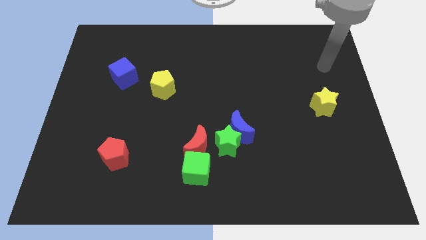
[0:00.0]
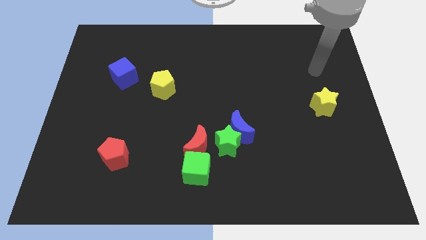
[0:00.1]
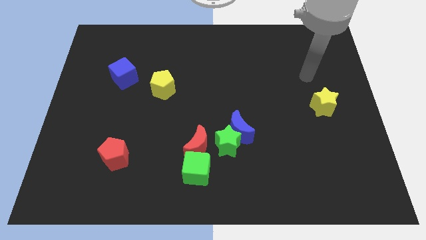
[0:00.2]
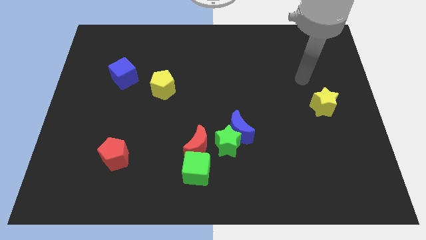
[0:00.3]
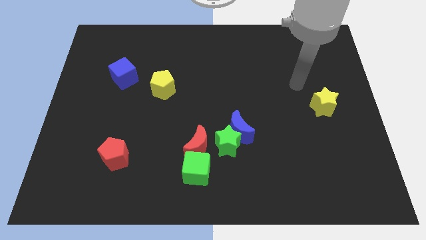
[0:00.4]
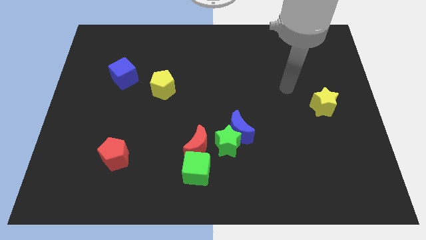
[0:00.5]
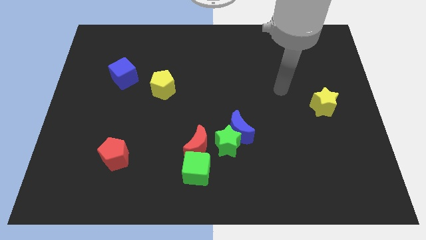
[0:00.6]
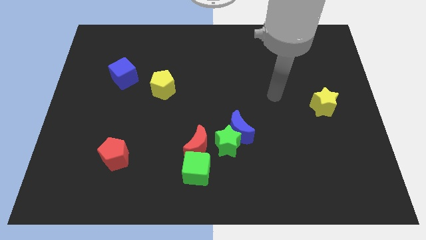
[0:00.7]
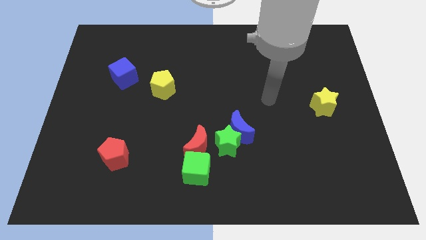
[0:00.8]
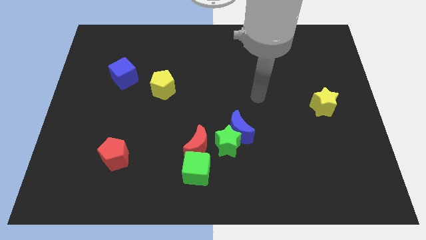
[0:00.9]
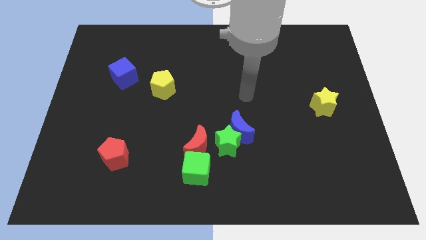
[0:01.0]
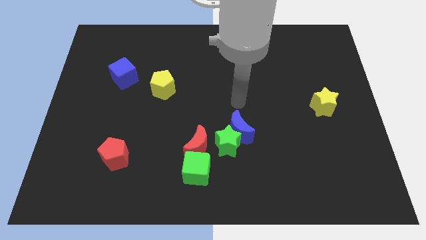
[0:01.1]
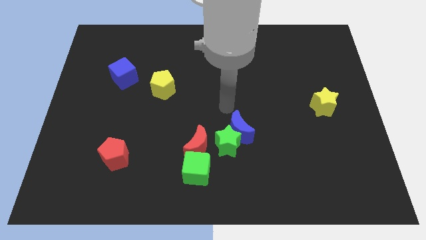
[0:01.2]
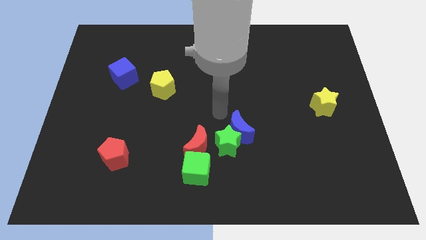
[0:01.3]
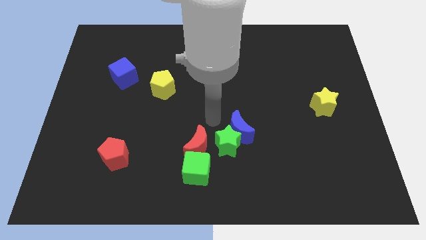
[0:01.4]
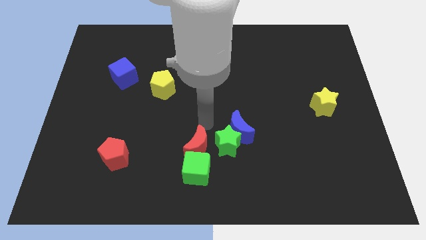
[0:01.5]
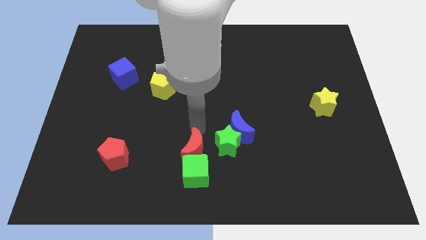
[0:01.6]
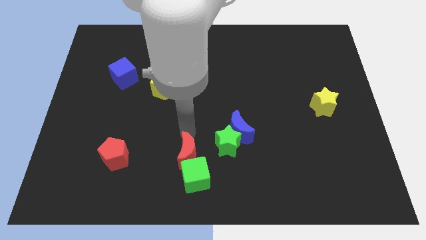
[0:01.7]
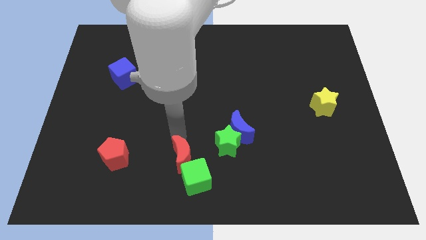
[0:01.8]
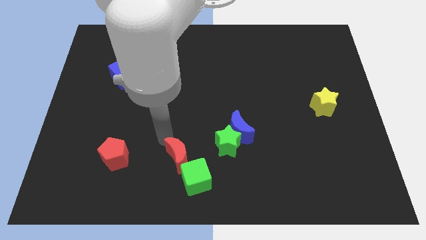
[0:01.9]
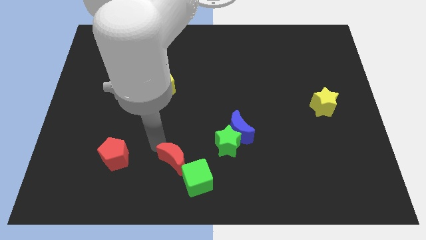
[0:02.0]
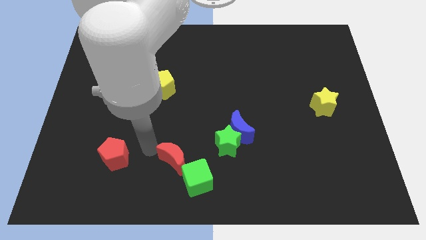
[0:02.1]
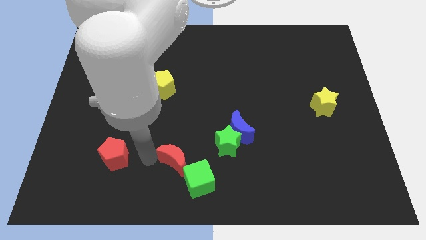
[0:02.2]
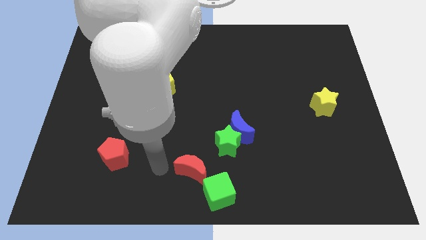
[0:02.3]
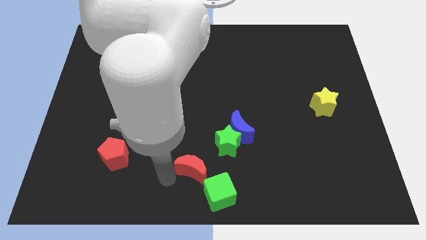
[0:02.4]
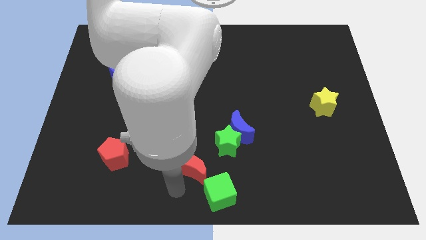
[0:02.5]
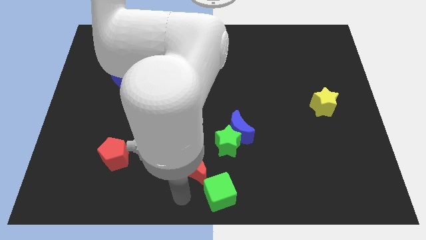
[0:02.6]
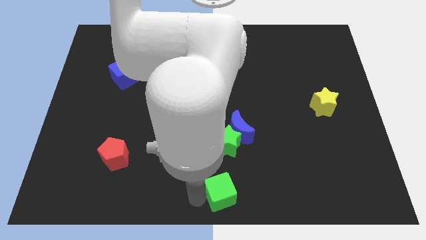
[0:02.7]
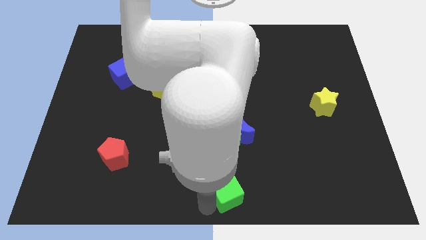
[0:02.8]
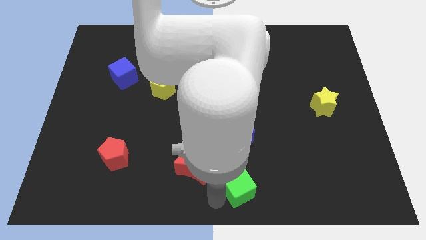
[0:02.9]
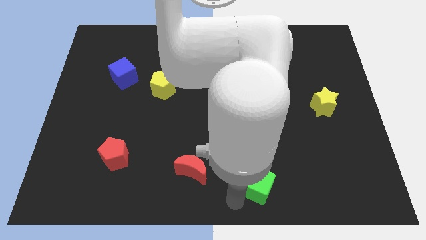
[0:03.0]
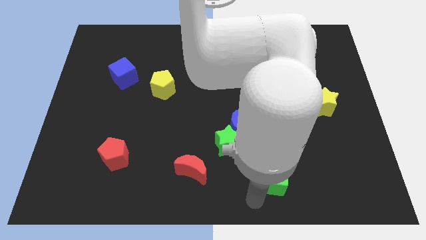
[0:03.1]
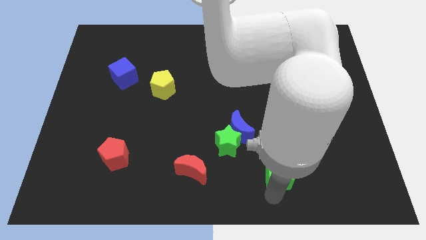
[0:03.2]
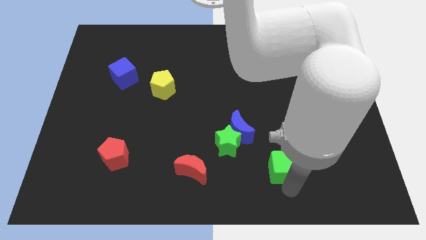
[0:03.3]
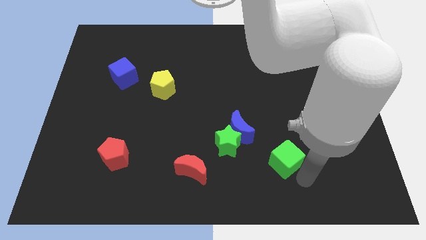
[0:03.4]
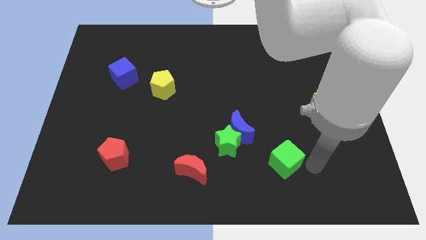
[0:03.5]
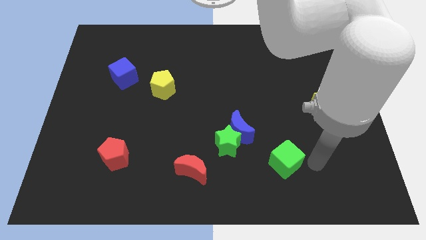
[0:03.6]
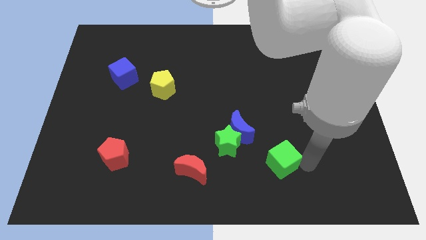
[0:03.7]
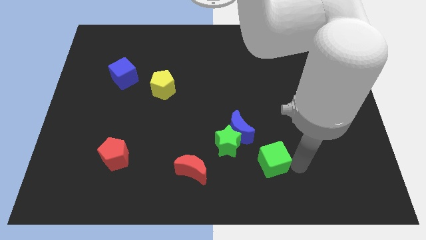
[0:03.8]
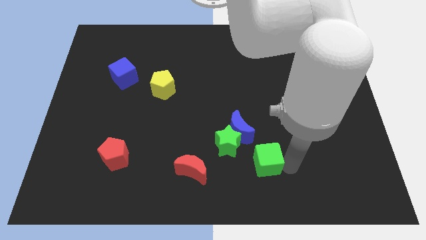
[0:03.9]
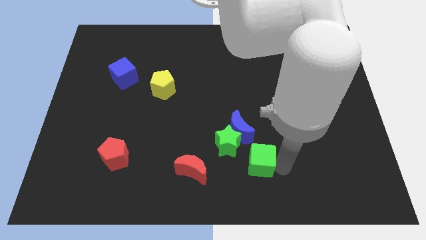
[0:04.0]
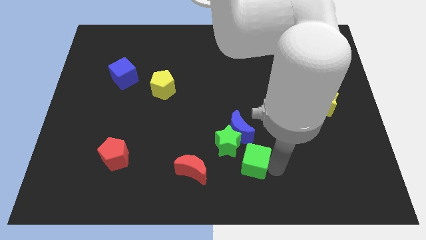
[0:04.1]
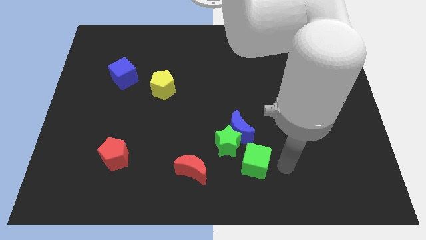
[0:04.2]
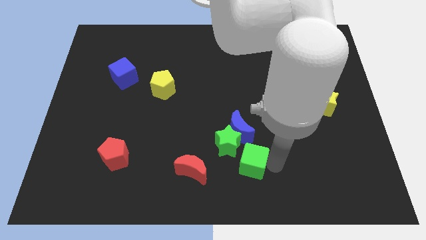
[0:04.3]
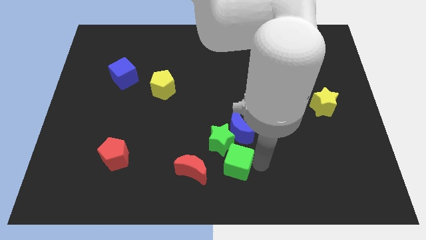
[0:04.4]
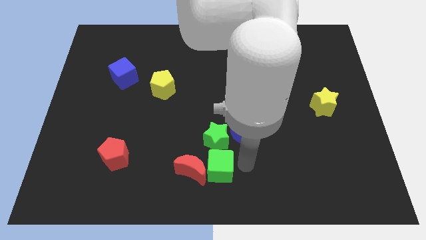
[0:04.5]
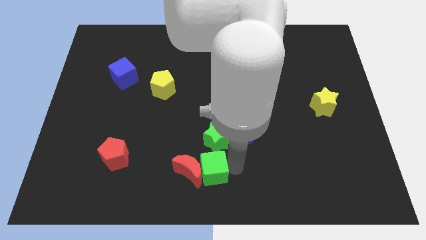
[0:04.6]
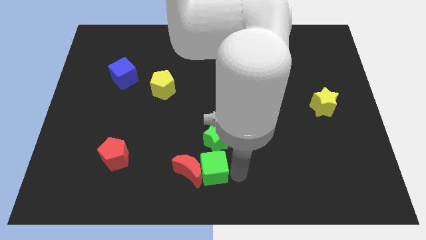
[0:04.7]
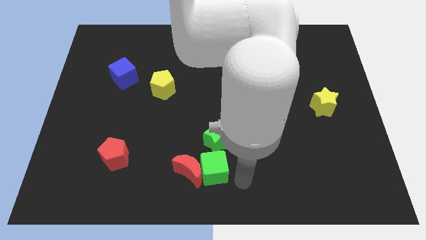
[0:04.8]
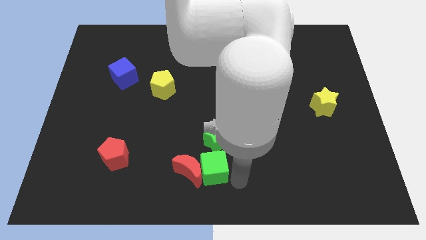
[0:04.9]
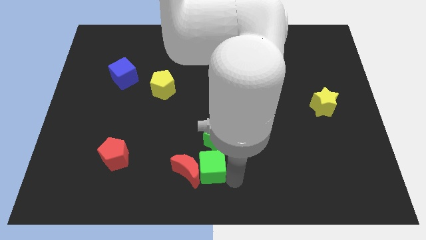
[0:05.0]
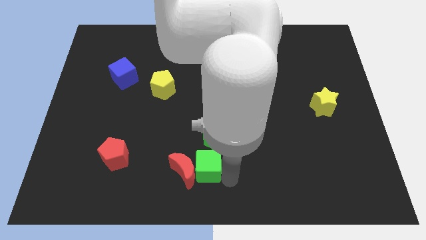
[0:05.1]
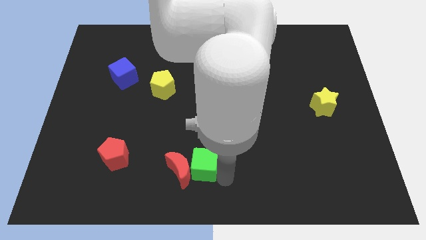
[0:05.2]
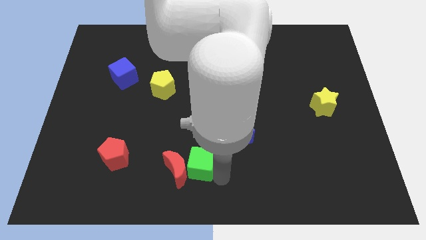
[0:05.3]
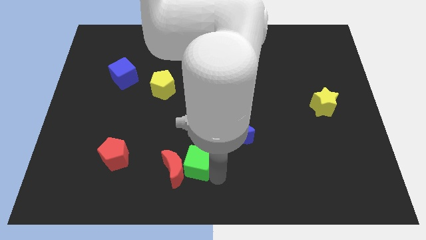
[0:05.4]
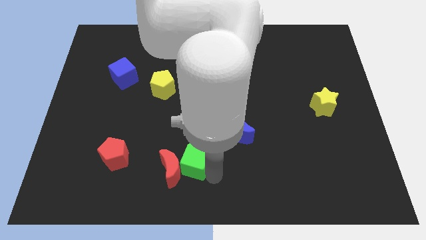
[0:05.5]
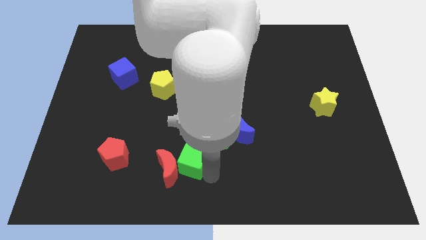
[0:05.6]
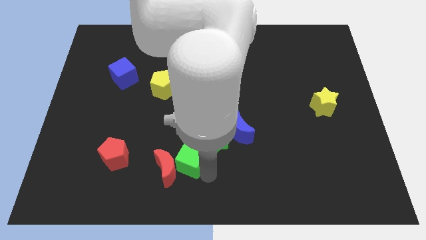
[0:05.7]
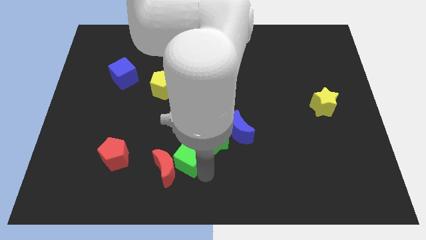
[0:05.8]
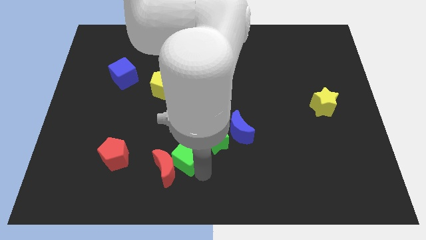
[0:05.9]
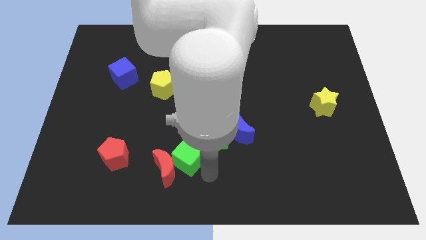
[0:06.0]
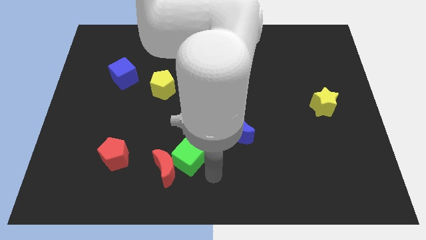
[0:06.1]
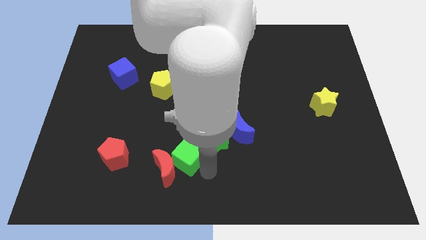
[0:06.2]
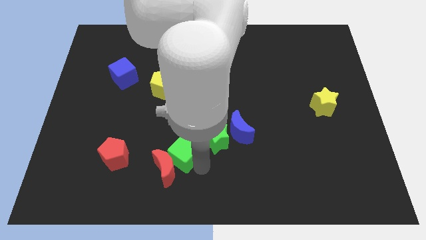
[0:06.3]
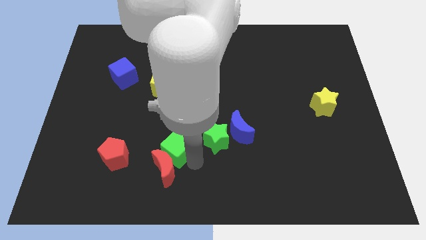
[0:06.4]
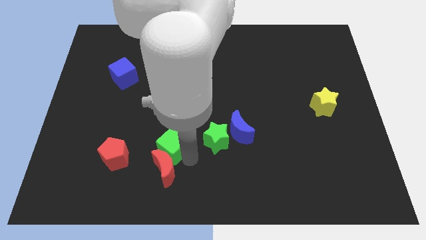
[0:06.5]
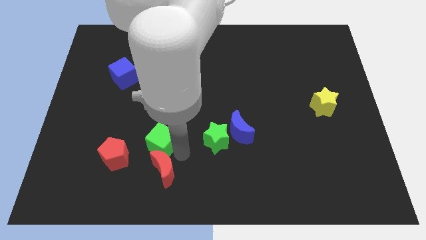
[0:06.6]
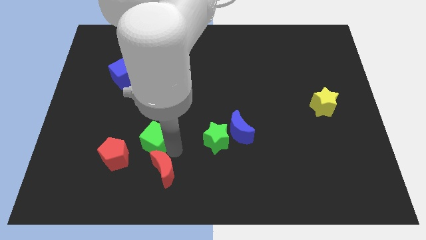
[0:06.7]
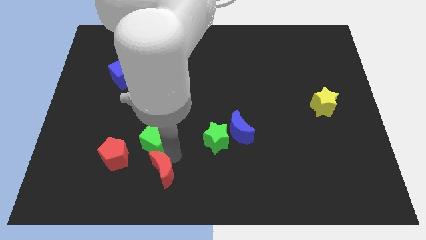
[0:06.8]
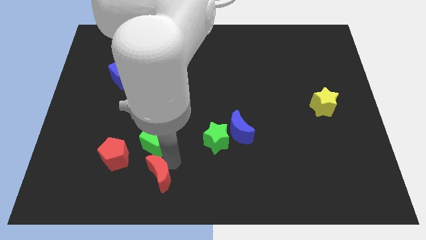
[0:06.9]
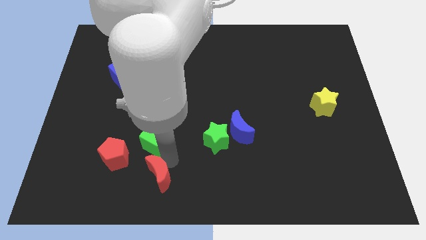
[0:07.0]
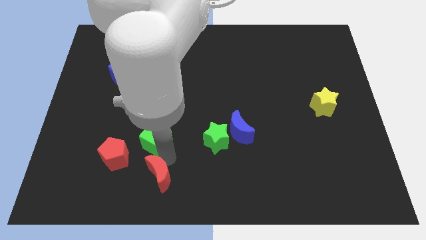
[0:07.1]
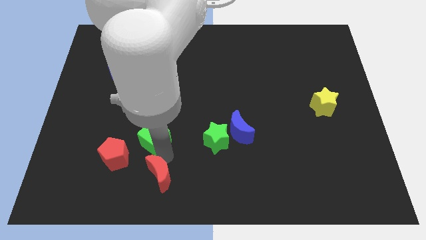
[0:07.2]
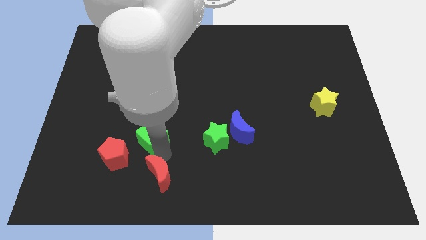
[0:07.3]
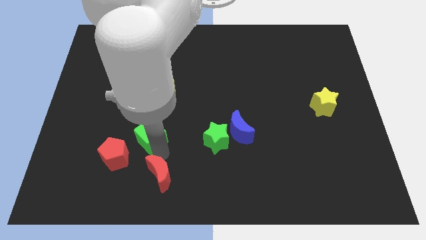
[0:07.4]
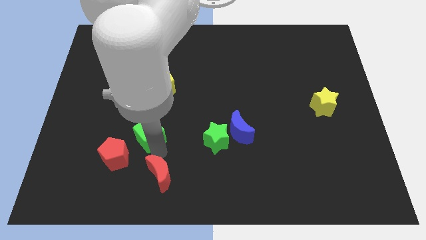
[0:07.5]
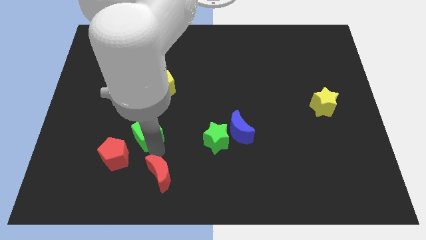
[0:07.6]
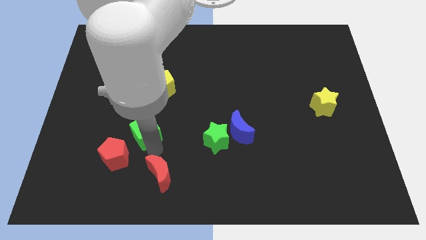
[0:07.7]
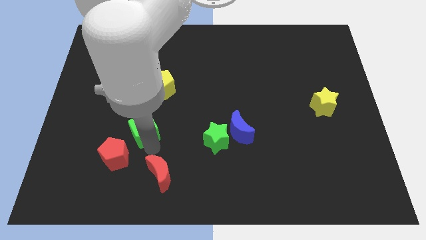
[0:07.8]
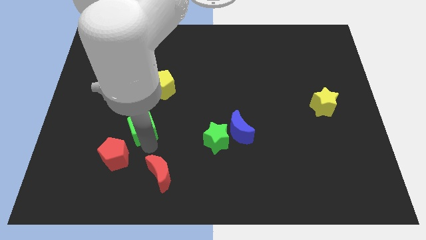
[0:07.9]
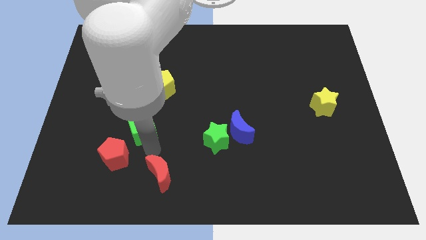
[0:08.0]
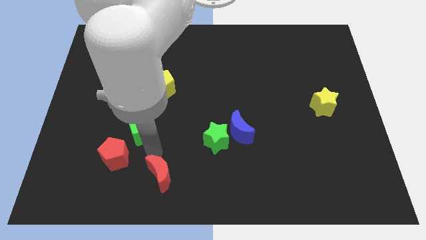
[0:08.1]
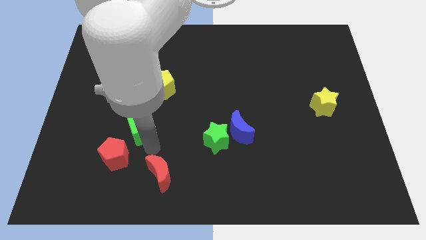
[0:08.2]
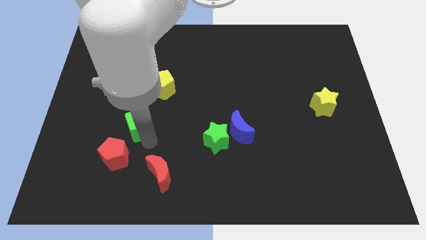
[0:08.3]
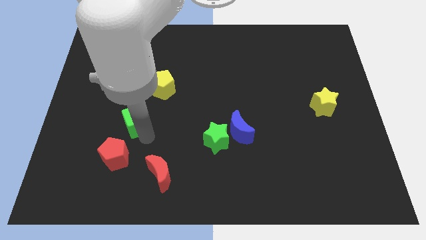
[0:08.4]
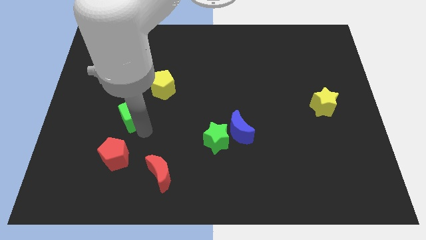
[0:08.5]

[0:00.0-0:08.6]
slide the green cube to the bottom side of the blue cube
